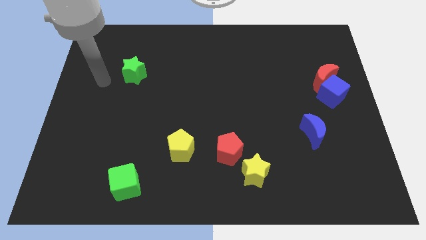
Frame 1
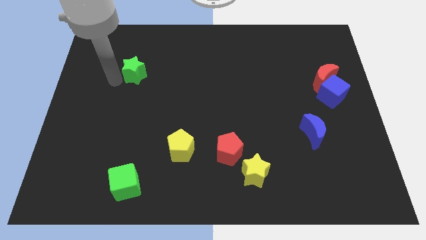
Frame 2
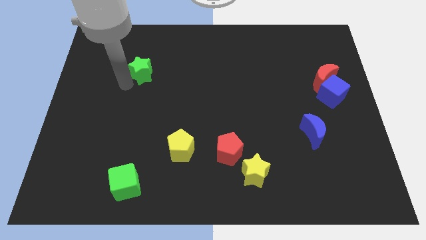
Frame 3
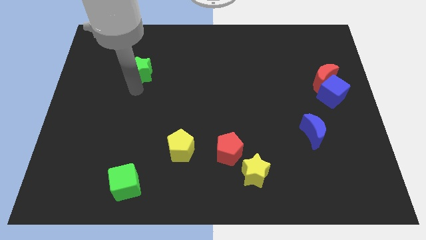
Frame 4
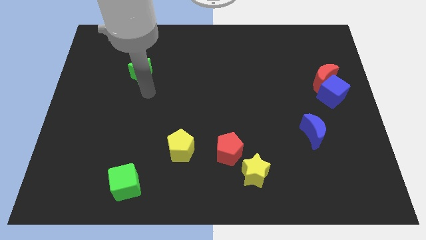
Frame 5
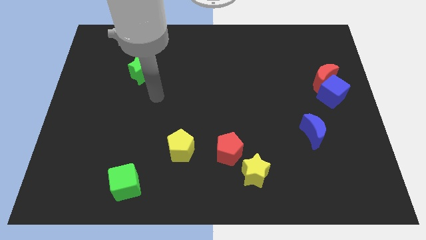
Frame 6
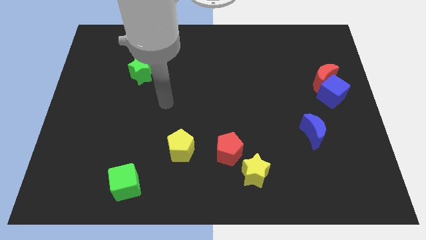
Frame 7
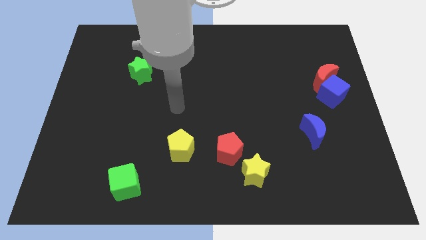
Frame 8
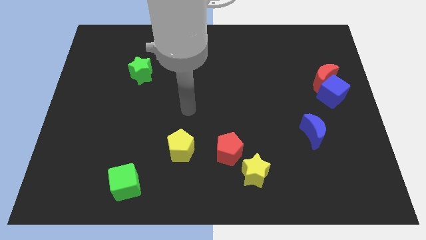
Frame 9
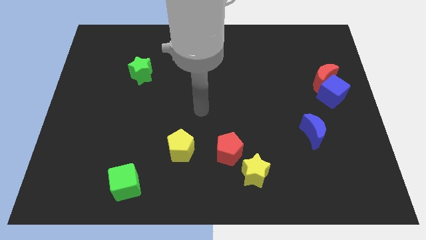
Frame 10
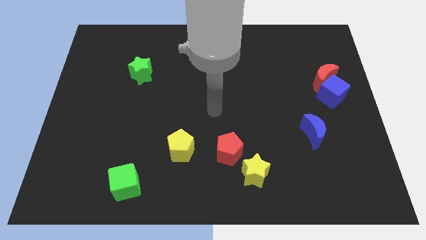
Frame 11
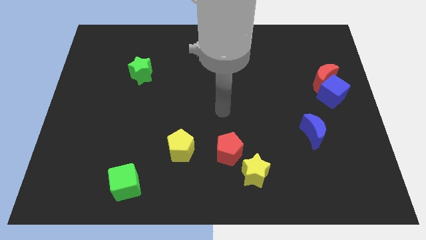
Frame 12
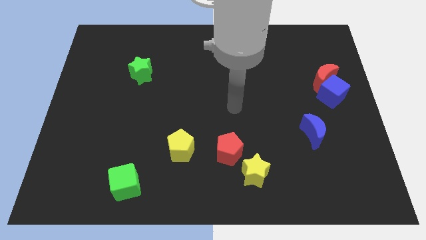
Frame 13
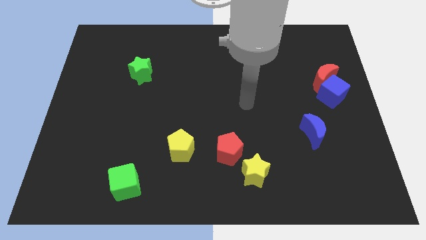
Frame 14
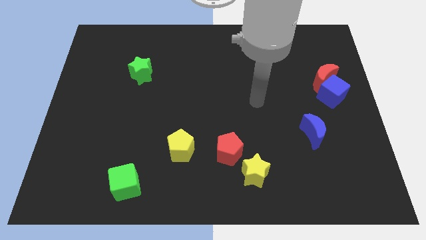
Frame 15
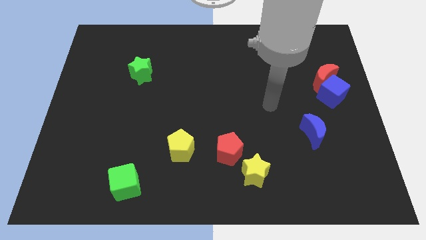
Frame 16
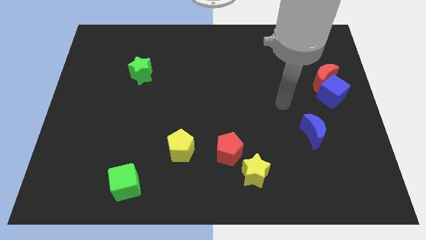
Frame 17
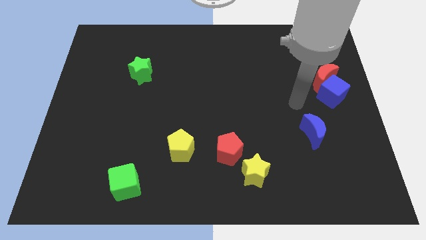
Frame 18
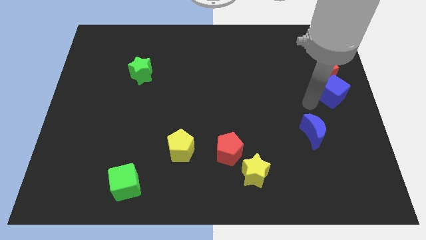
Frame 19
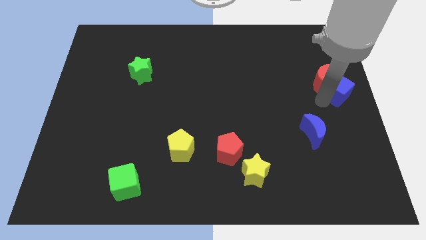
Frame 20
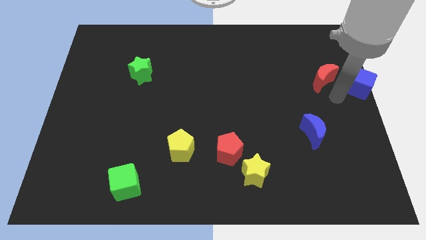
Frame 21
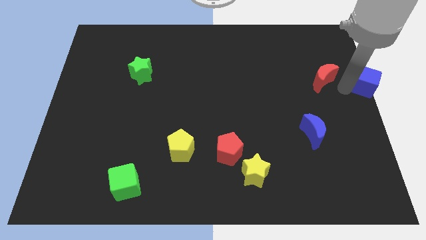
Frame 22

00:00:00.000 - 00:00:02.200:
move the red moon away from the blue cube

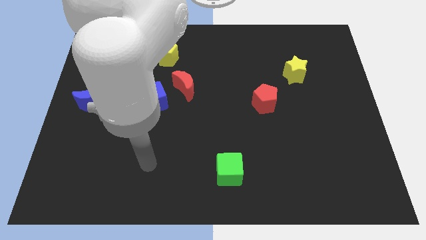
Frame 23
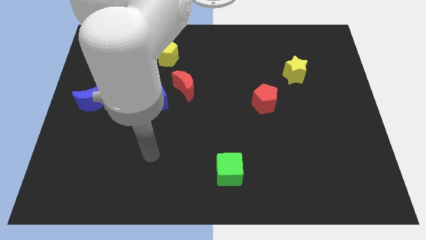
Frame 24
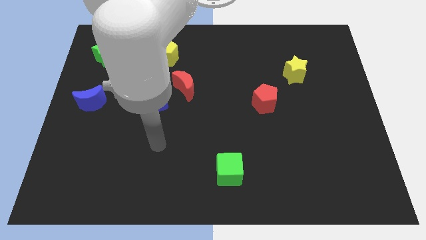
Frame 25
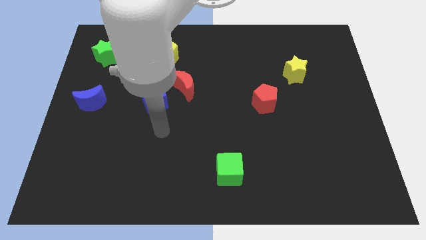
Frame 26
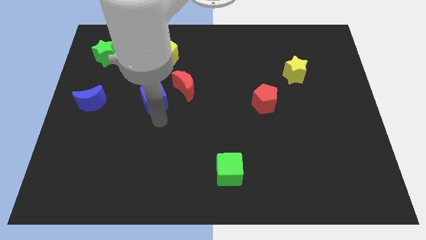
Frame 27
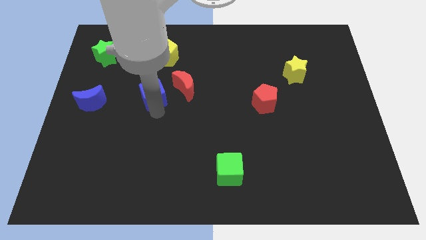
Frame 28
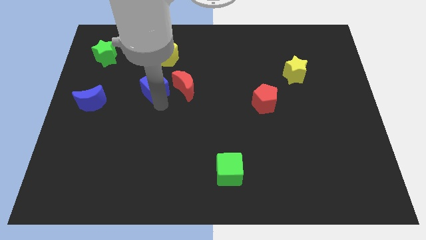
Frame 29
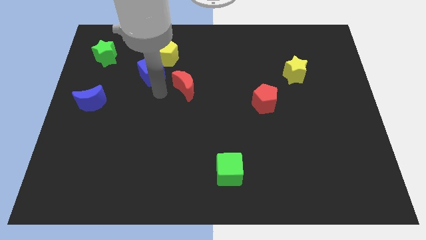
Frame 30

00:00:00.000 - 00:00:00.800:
pull the red moon apart from the blue cube

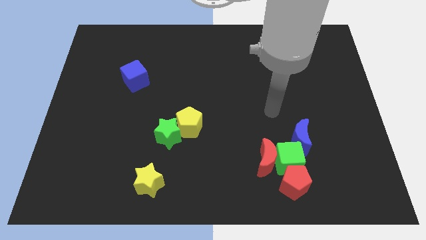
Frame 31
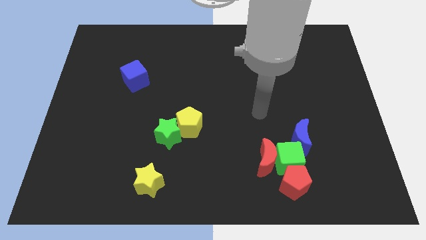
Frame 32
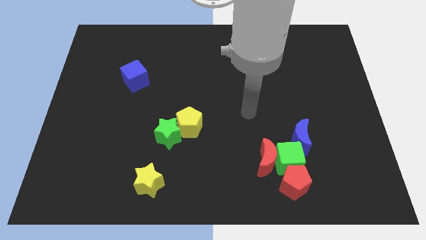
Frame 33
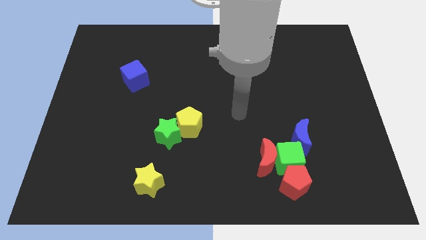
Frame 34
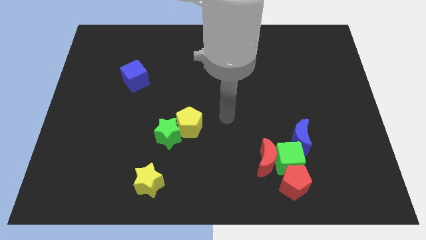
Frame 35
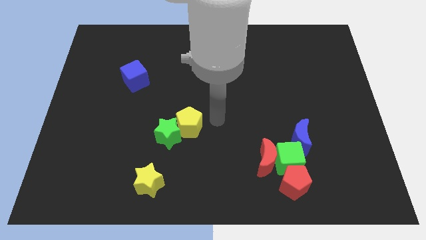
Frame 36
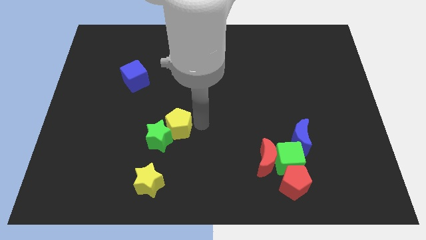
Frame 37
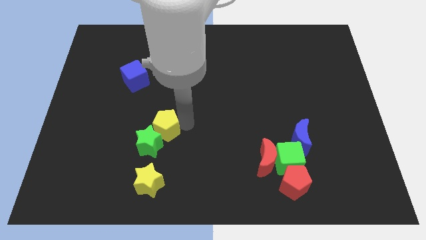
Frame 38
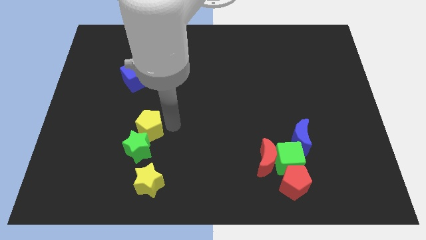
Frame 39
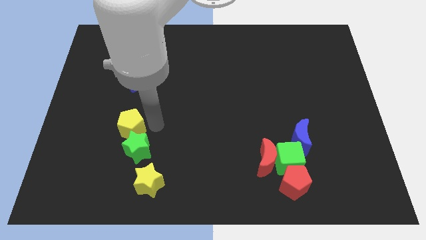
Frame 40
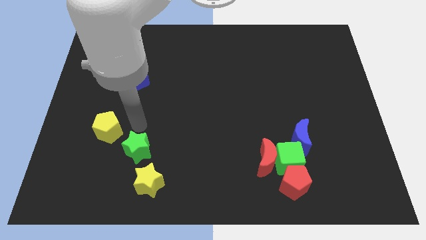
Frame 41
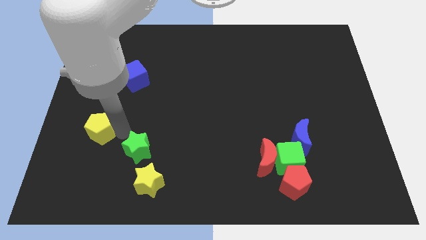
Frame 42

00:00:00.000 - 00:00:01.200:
move the green star away from the yellow pentagon

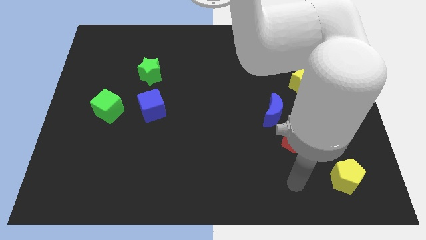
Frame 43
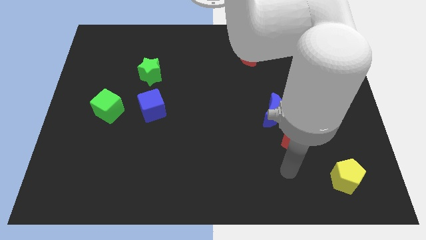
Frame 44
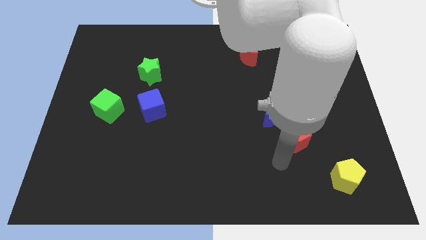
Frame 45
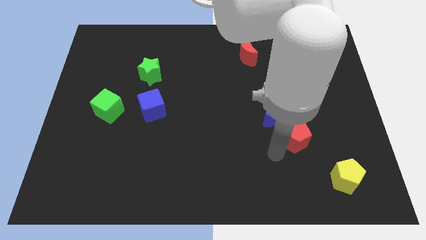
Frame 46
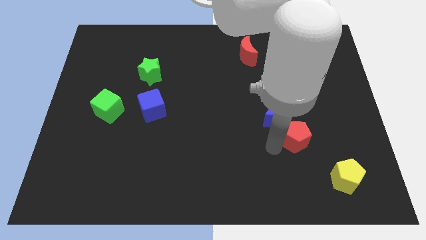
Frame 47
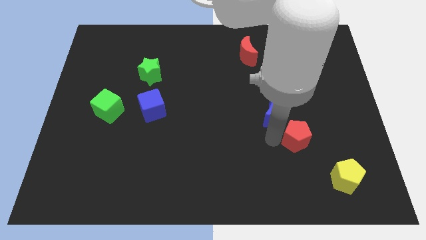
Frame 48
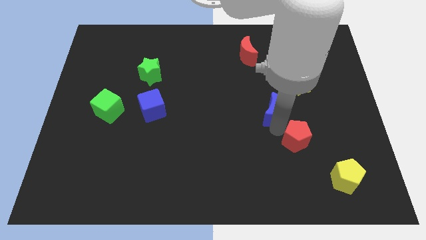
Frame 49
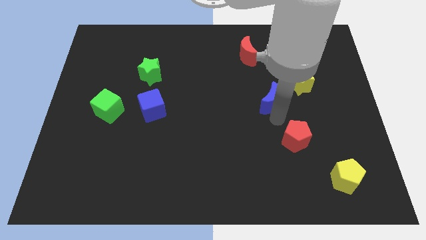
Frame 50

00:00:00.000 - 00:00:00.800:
move the red pentagon away from the blue moon

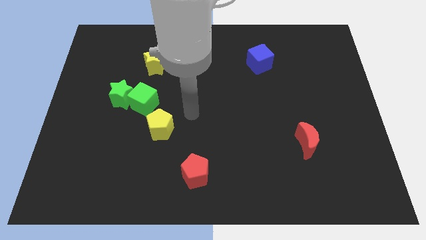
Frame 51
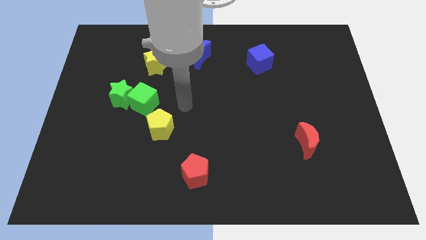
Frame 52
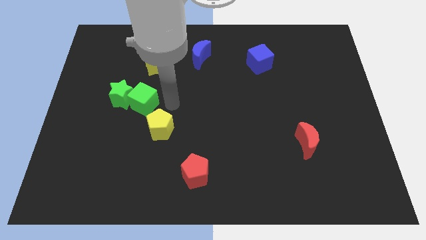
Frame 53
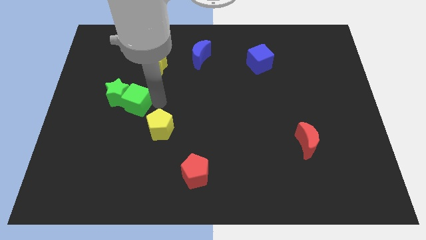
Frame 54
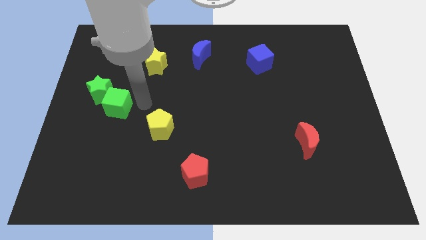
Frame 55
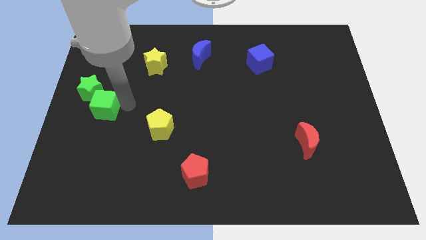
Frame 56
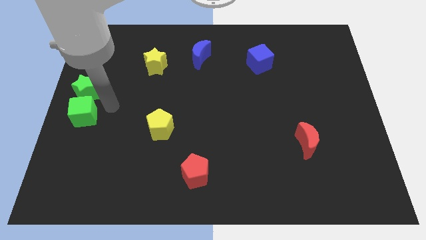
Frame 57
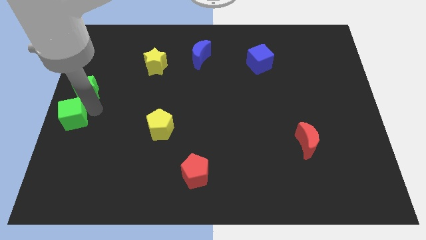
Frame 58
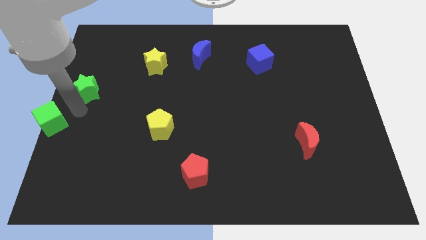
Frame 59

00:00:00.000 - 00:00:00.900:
pull the green star apart from the green cube

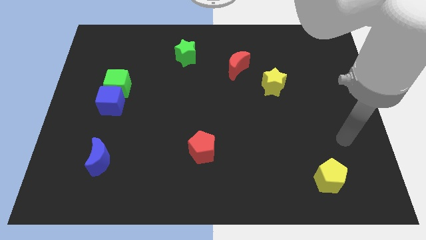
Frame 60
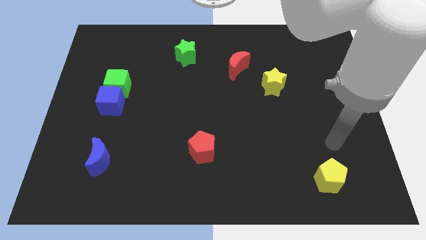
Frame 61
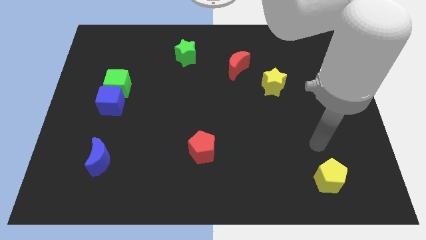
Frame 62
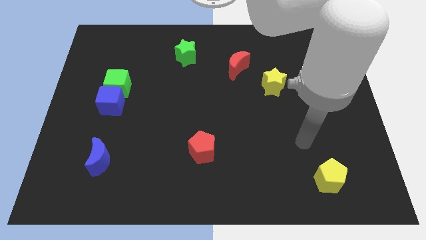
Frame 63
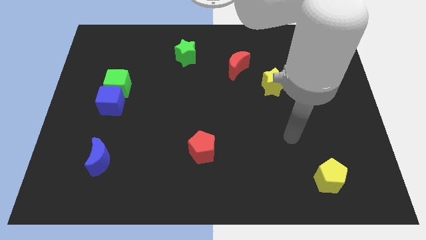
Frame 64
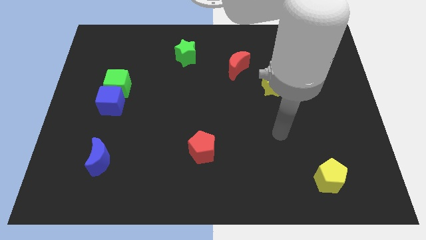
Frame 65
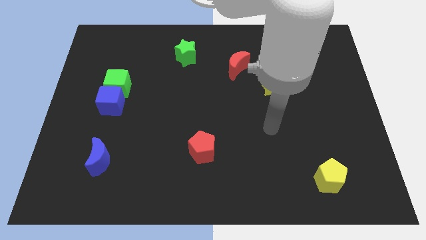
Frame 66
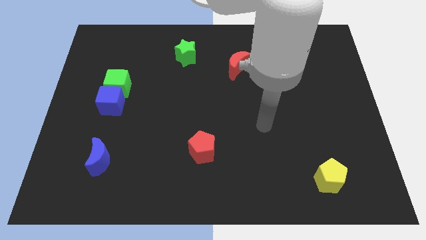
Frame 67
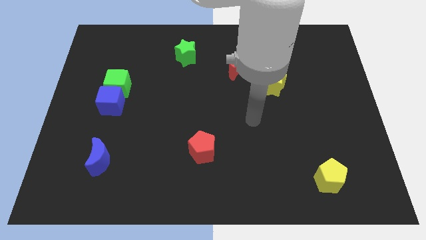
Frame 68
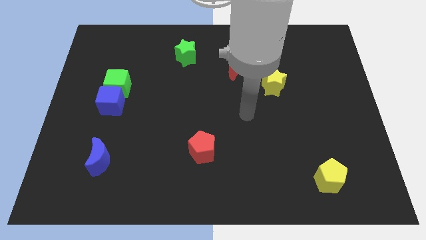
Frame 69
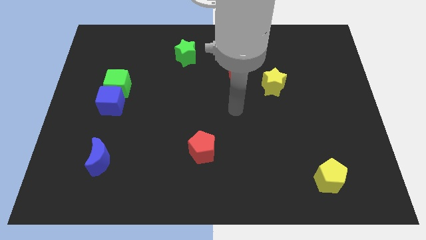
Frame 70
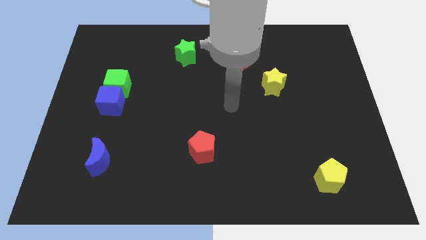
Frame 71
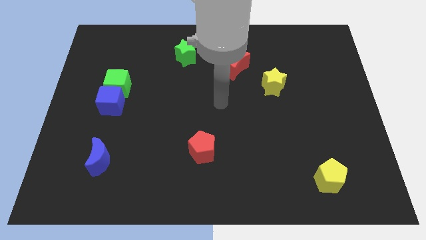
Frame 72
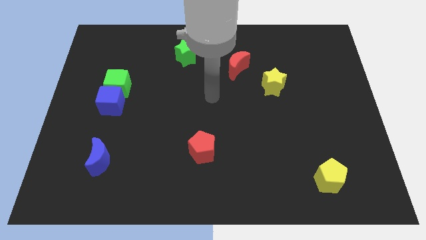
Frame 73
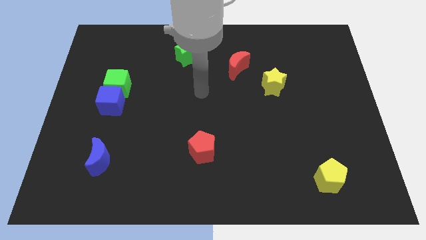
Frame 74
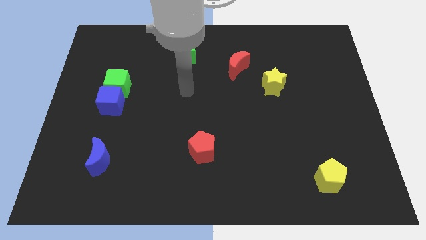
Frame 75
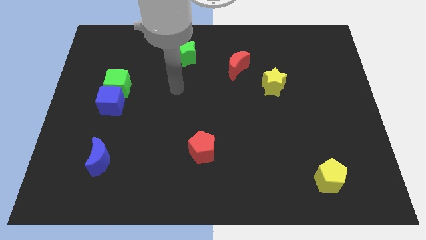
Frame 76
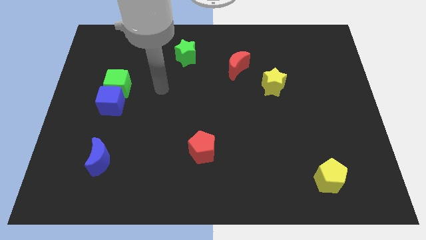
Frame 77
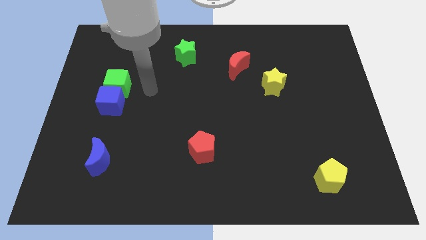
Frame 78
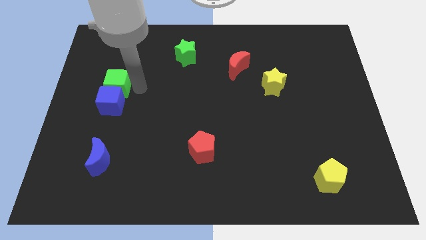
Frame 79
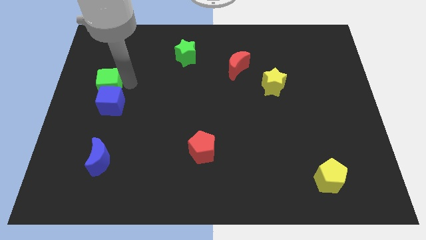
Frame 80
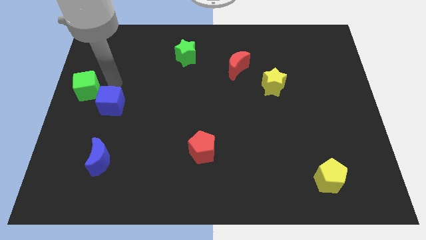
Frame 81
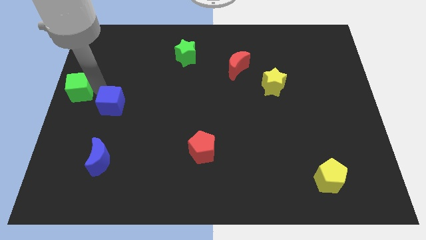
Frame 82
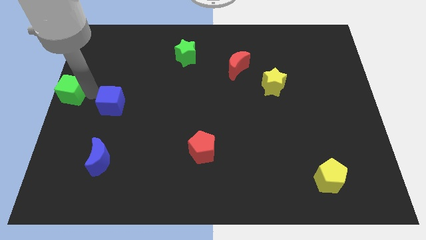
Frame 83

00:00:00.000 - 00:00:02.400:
separate the blue cube from the green cube

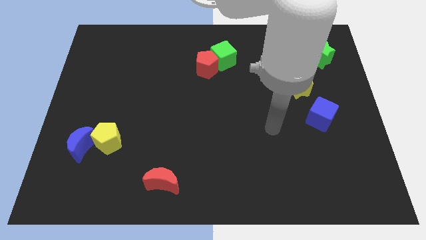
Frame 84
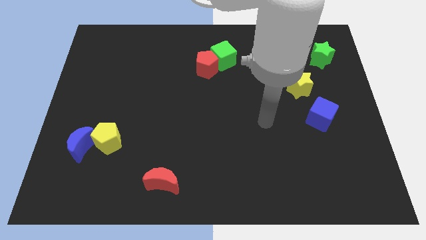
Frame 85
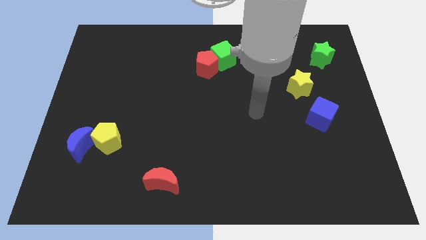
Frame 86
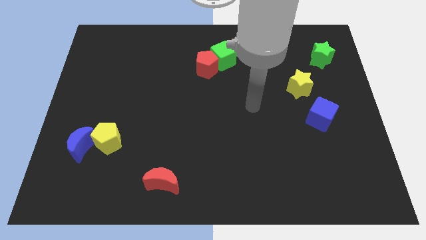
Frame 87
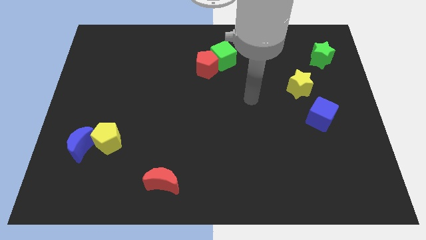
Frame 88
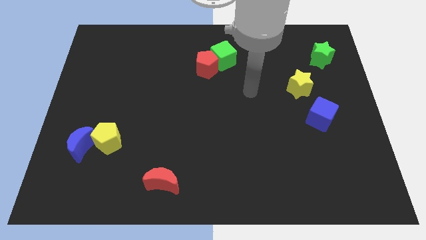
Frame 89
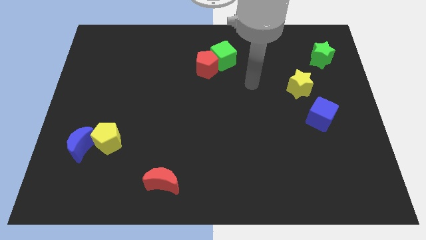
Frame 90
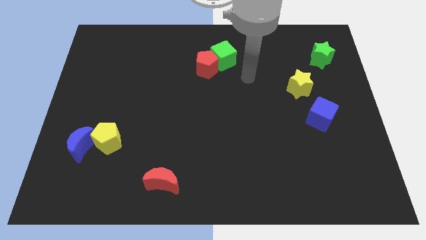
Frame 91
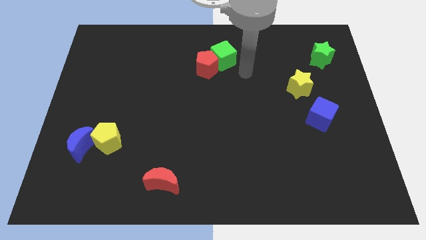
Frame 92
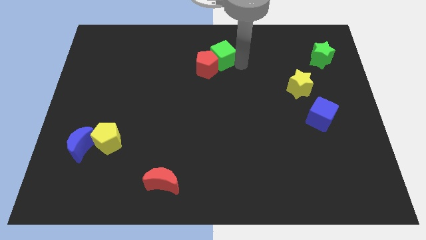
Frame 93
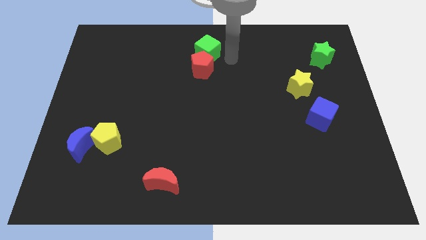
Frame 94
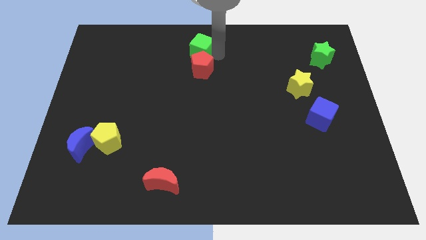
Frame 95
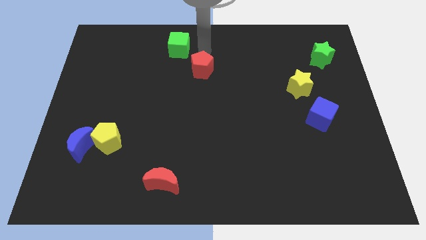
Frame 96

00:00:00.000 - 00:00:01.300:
separate the red pentagon from the green cube
